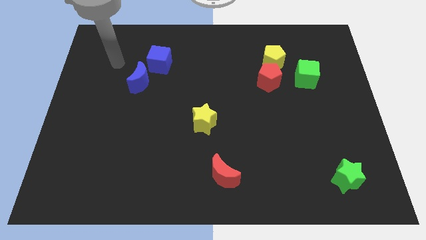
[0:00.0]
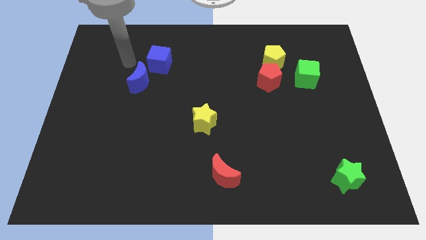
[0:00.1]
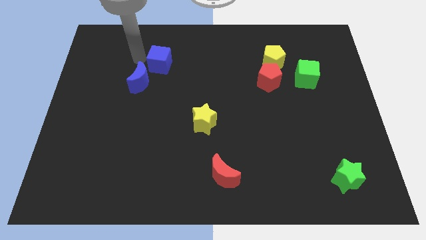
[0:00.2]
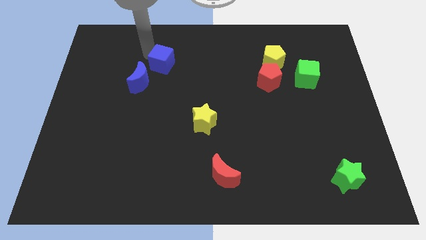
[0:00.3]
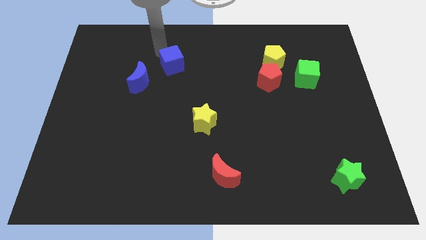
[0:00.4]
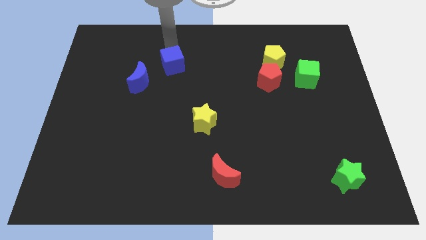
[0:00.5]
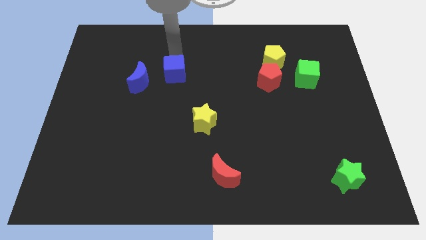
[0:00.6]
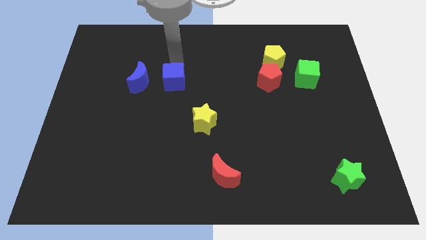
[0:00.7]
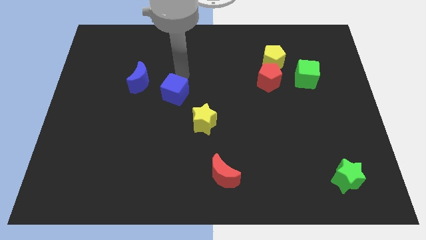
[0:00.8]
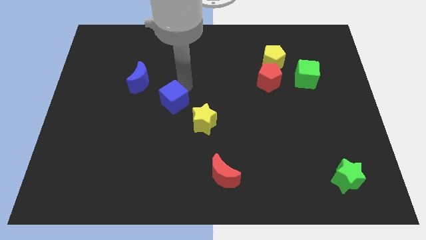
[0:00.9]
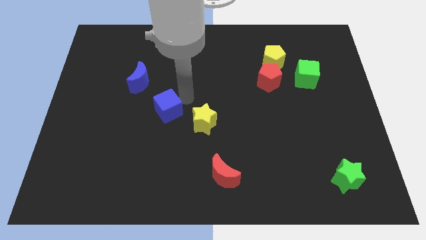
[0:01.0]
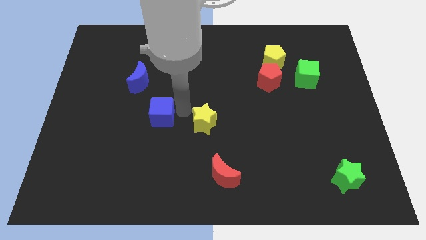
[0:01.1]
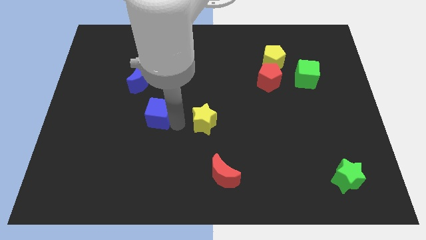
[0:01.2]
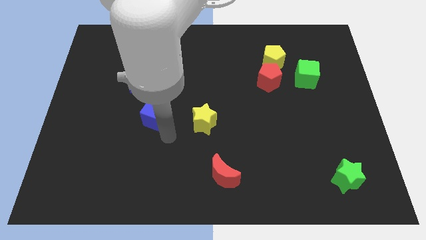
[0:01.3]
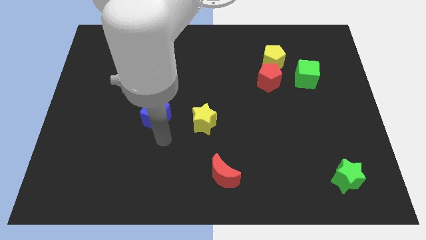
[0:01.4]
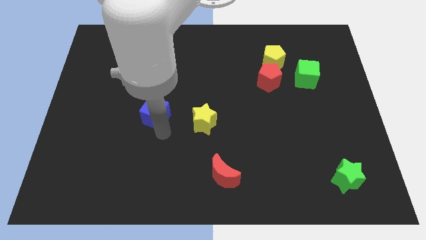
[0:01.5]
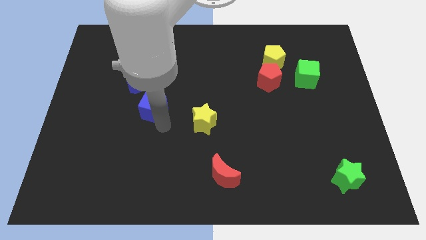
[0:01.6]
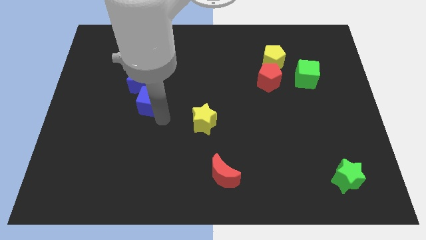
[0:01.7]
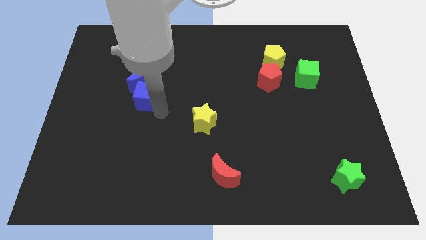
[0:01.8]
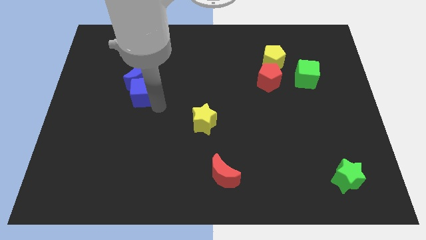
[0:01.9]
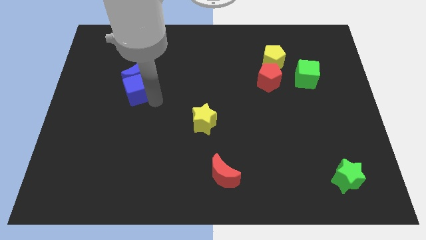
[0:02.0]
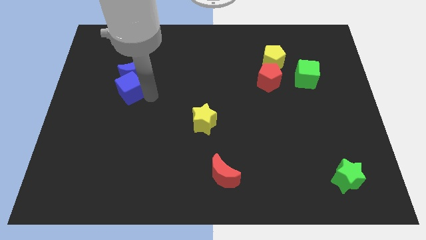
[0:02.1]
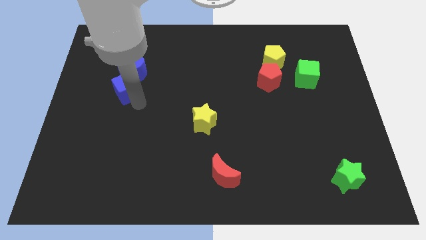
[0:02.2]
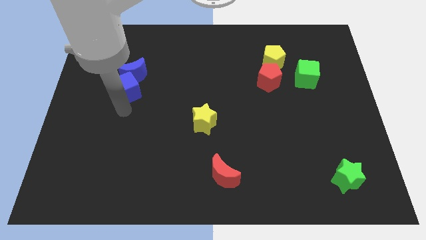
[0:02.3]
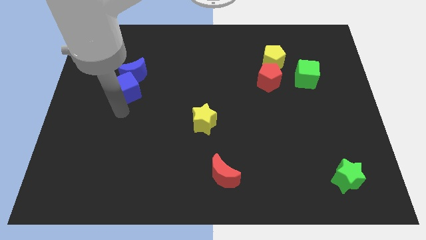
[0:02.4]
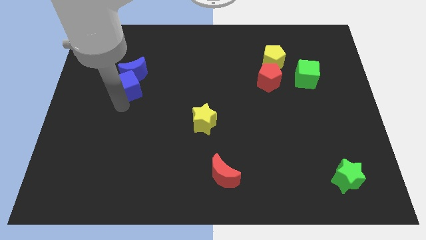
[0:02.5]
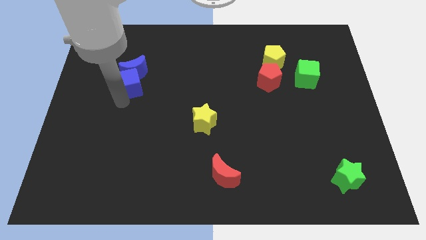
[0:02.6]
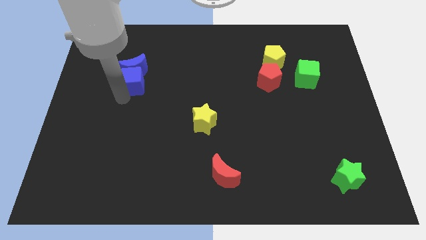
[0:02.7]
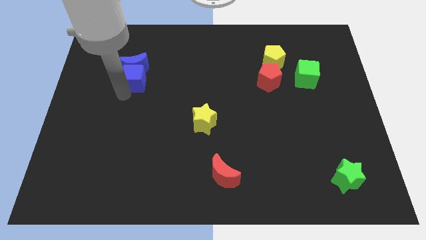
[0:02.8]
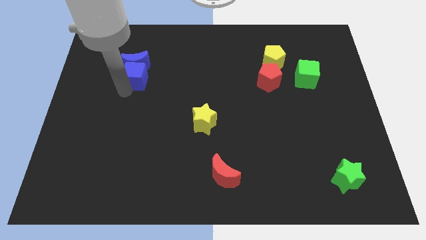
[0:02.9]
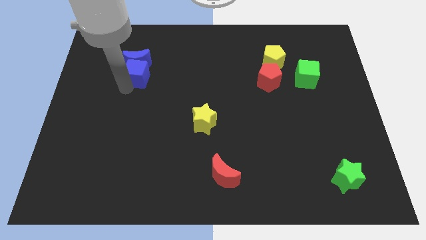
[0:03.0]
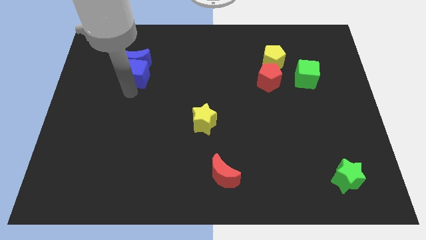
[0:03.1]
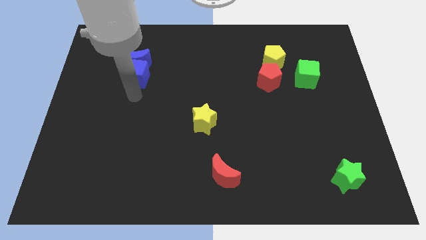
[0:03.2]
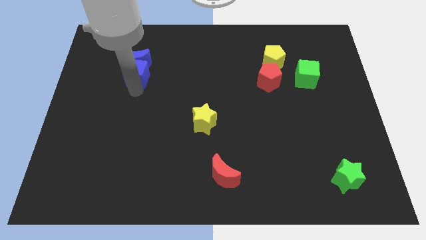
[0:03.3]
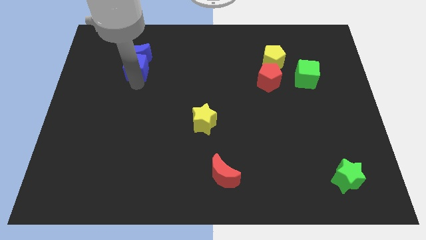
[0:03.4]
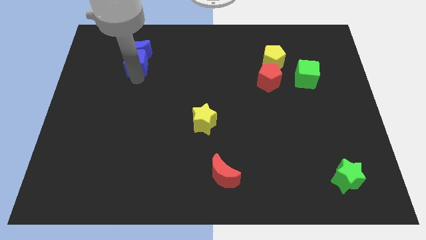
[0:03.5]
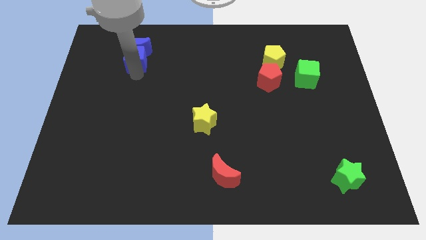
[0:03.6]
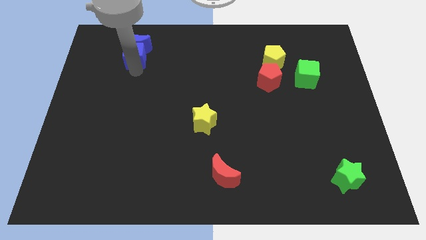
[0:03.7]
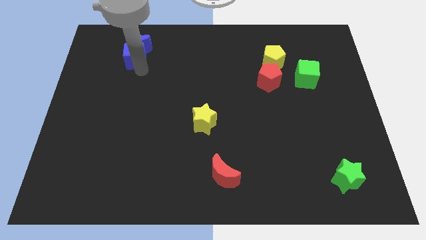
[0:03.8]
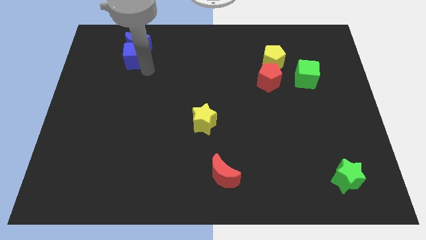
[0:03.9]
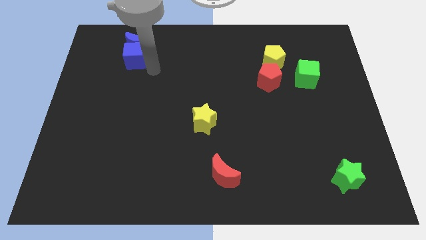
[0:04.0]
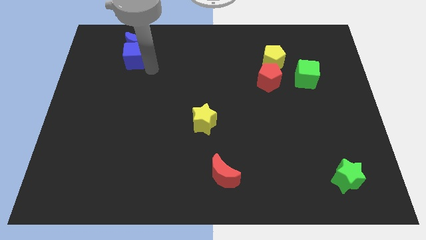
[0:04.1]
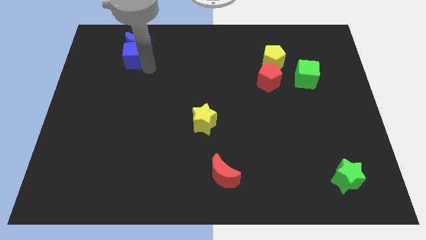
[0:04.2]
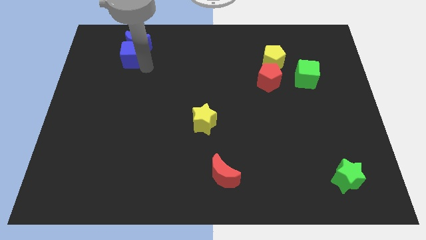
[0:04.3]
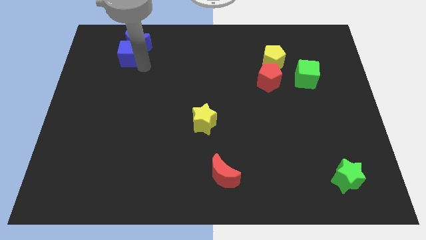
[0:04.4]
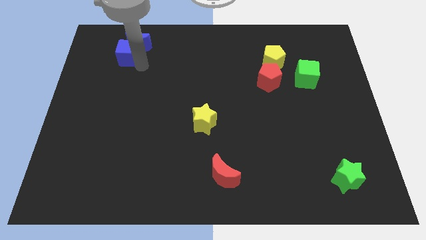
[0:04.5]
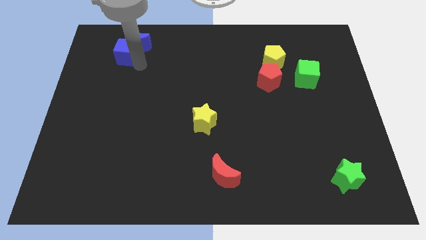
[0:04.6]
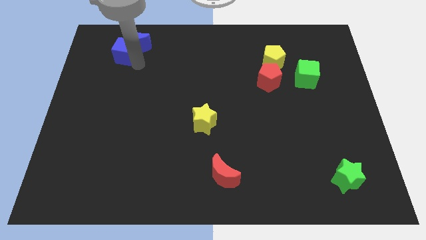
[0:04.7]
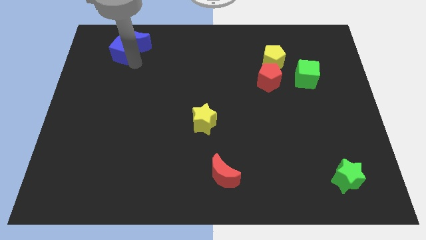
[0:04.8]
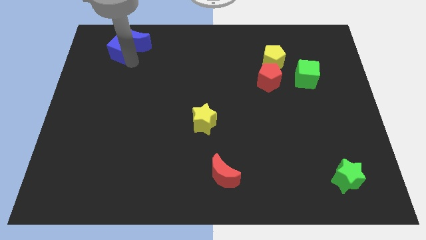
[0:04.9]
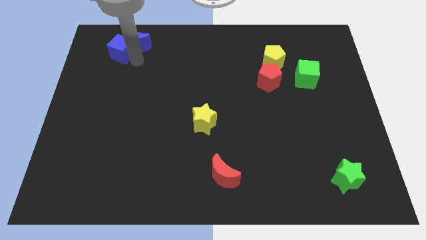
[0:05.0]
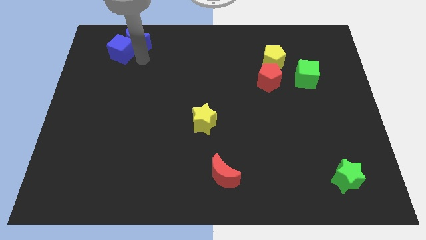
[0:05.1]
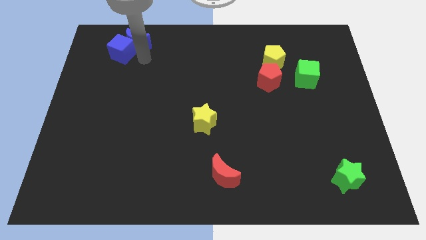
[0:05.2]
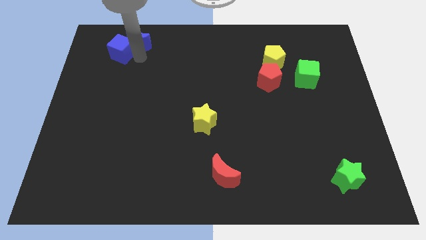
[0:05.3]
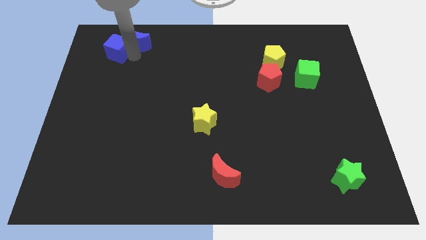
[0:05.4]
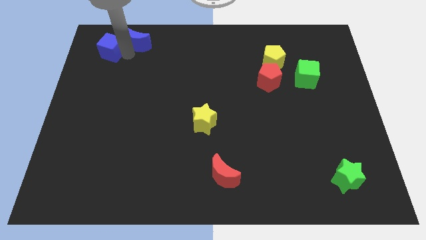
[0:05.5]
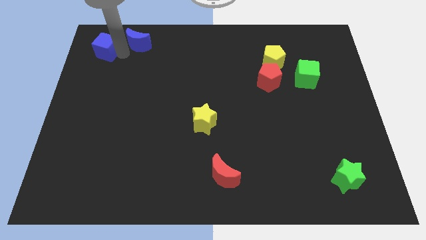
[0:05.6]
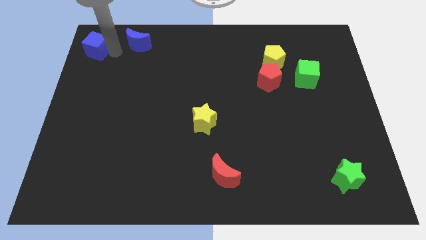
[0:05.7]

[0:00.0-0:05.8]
slide the blue cube to the top left of the board

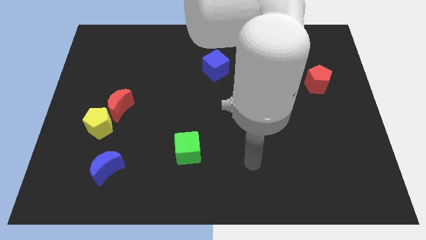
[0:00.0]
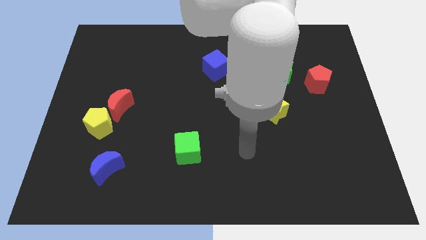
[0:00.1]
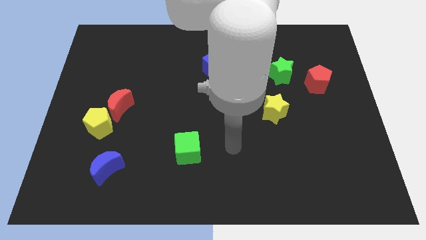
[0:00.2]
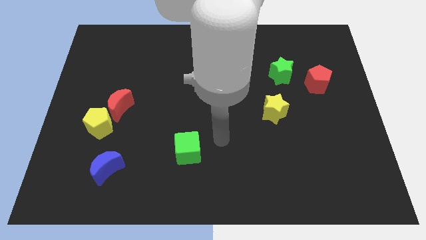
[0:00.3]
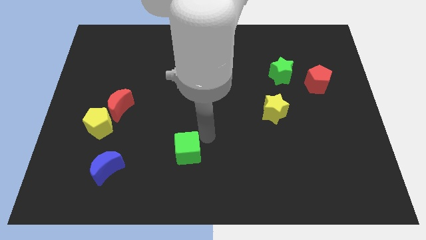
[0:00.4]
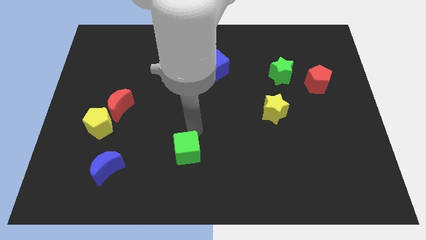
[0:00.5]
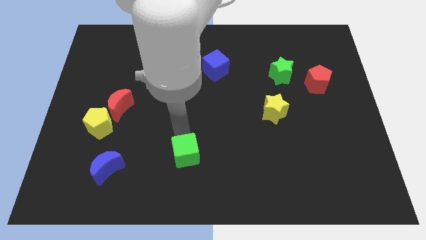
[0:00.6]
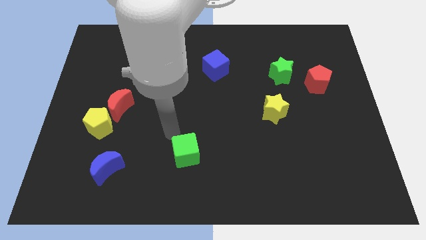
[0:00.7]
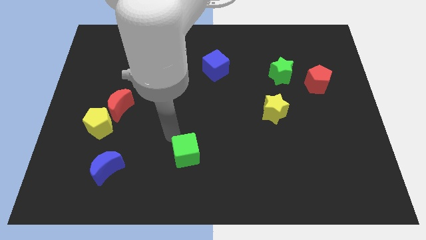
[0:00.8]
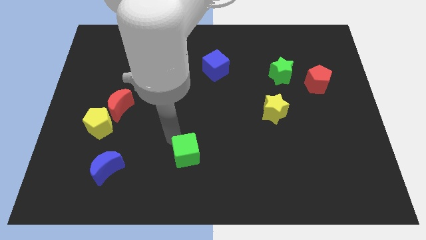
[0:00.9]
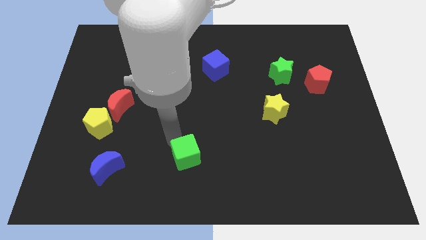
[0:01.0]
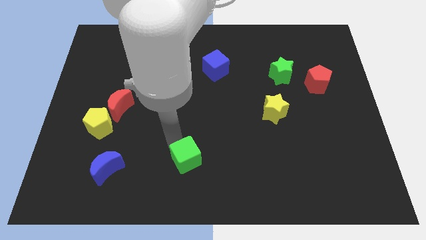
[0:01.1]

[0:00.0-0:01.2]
push the green cube to the bottom
